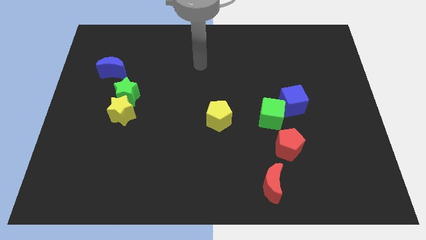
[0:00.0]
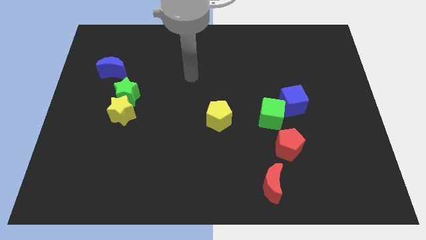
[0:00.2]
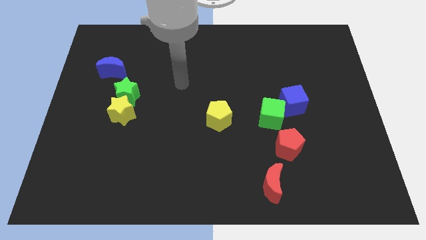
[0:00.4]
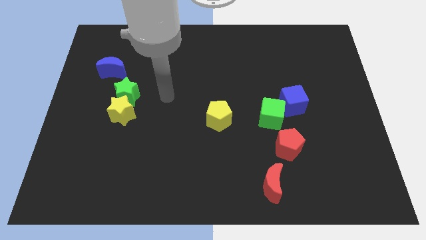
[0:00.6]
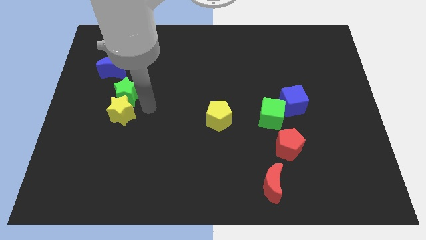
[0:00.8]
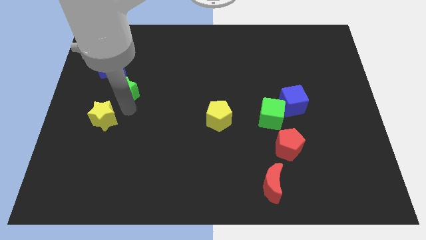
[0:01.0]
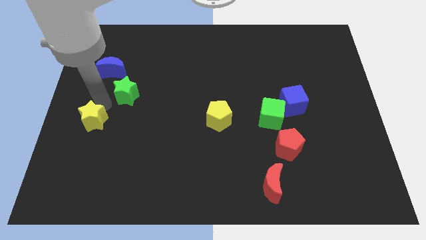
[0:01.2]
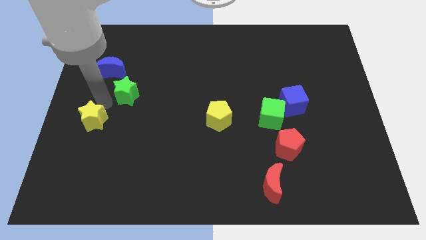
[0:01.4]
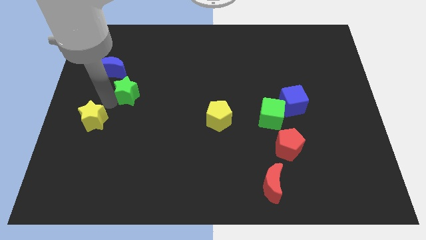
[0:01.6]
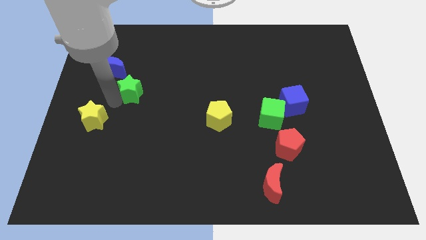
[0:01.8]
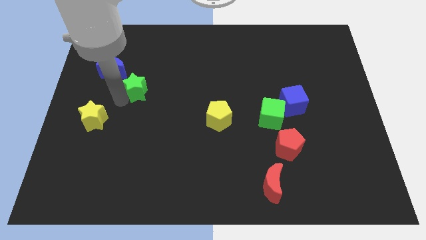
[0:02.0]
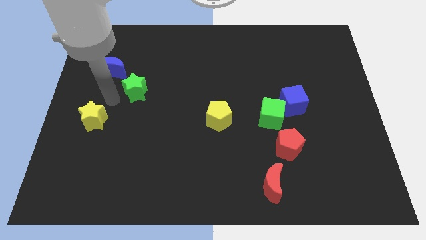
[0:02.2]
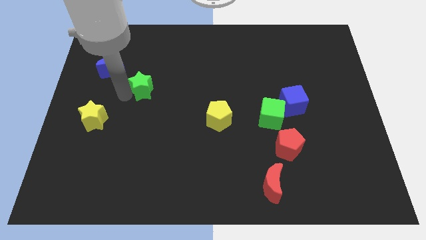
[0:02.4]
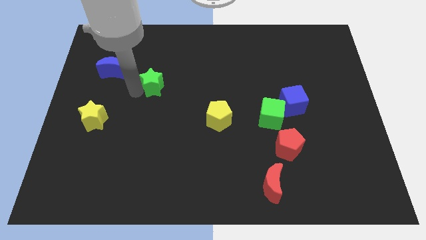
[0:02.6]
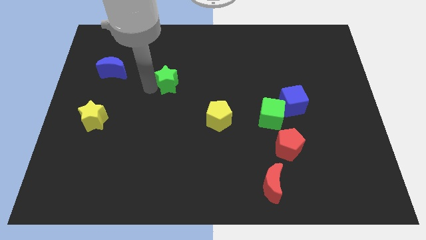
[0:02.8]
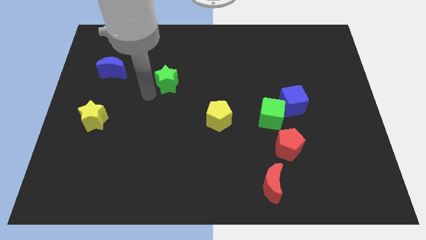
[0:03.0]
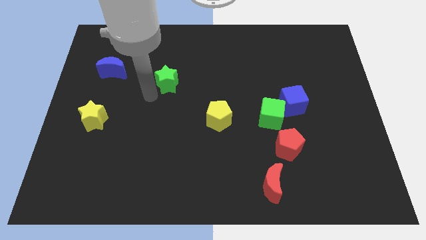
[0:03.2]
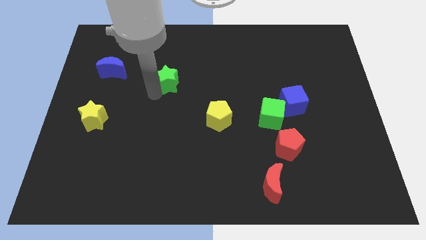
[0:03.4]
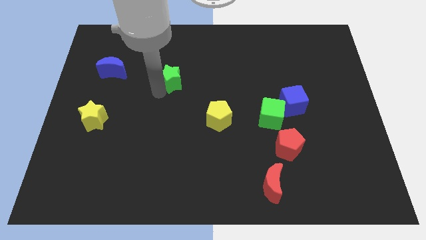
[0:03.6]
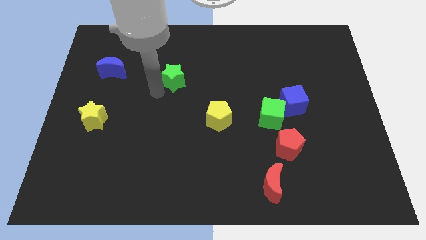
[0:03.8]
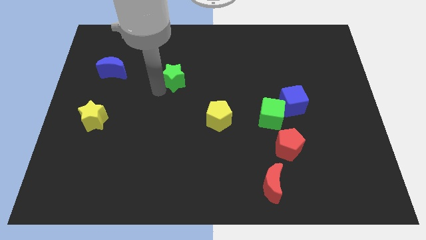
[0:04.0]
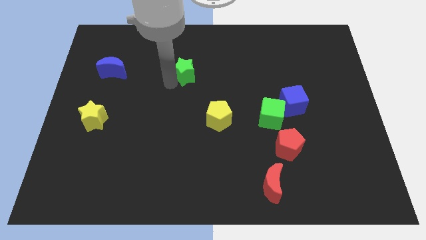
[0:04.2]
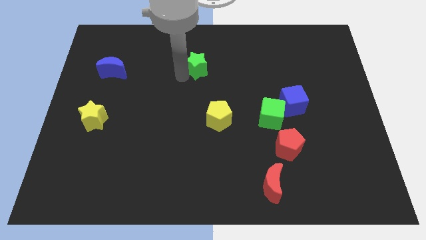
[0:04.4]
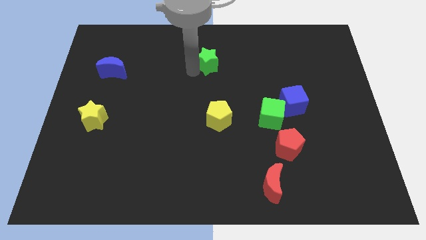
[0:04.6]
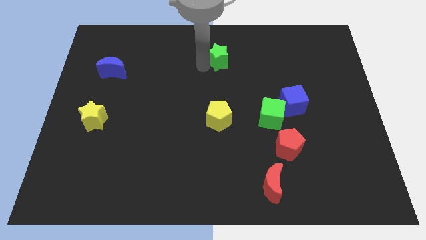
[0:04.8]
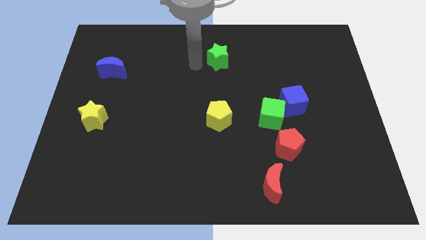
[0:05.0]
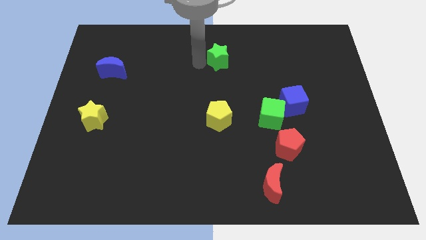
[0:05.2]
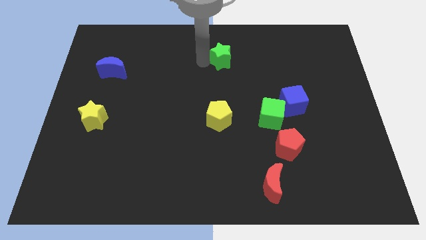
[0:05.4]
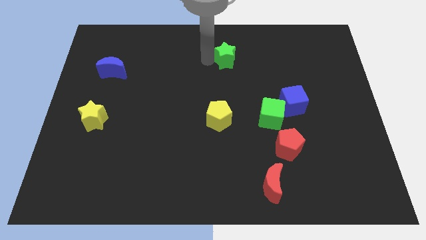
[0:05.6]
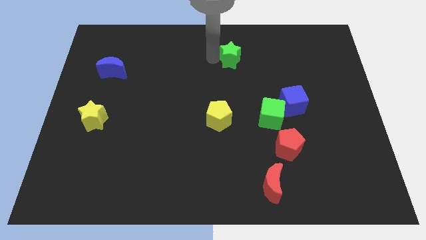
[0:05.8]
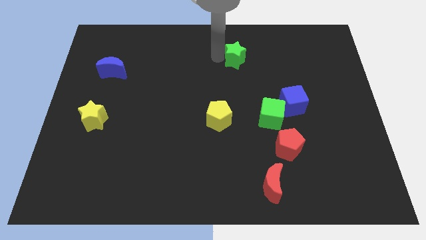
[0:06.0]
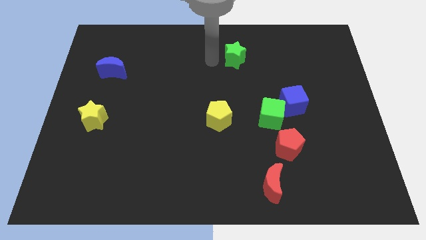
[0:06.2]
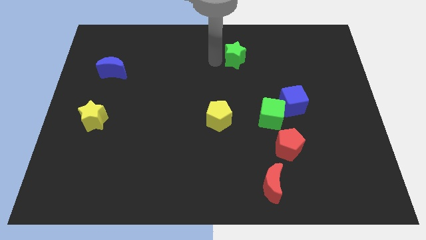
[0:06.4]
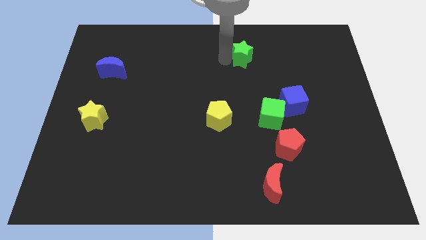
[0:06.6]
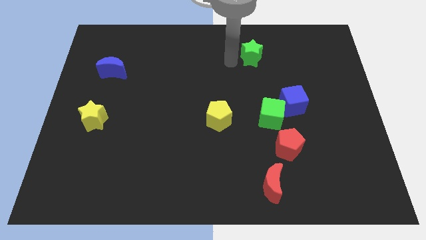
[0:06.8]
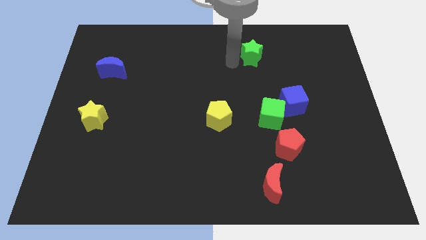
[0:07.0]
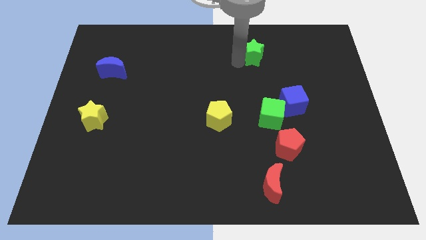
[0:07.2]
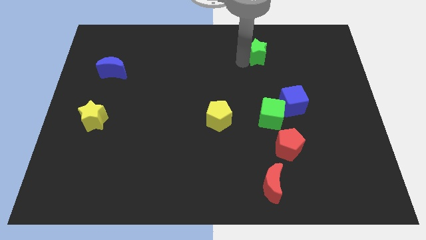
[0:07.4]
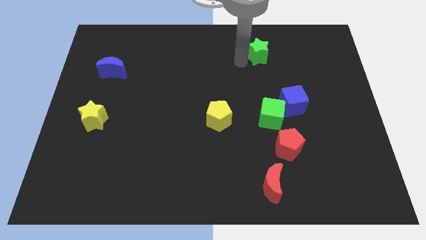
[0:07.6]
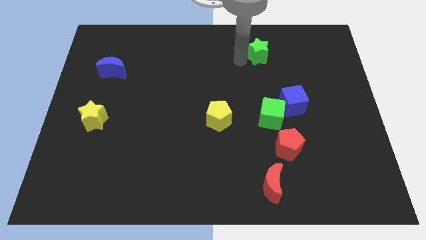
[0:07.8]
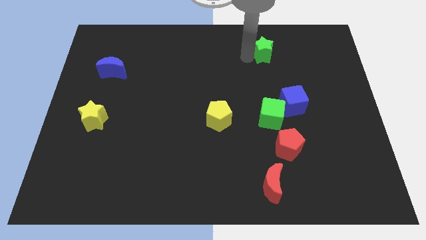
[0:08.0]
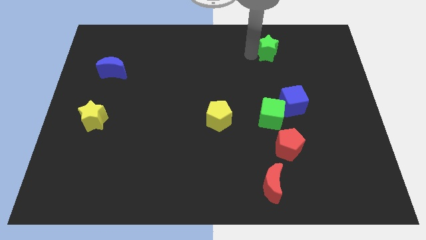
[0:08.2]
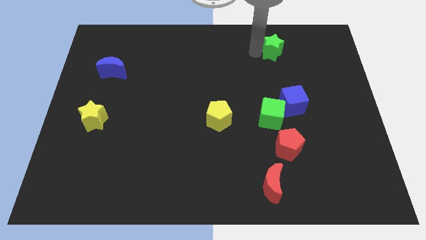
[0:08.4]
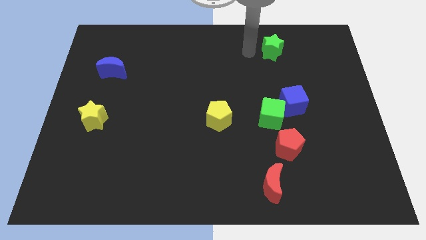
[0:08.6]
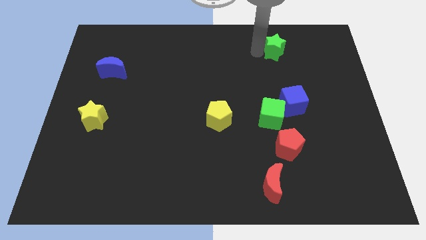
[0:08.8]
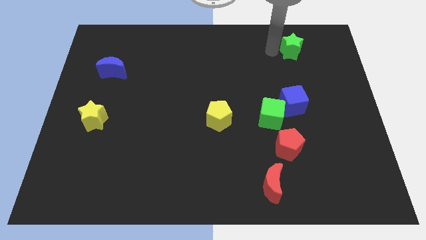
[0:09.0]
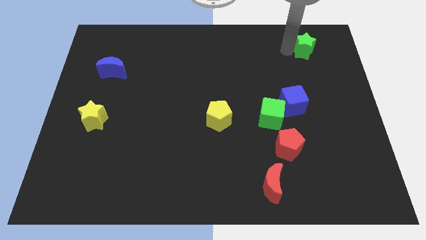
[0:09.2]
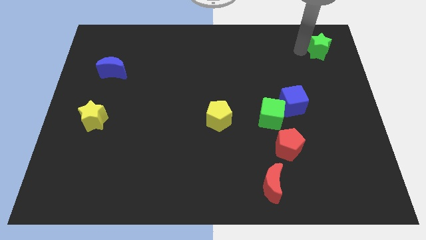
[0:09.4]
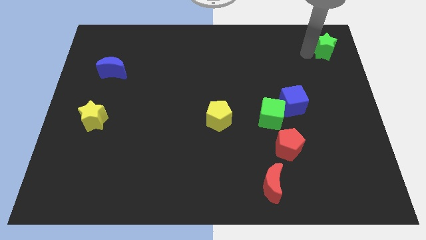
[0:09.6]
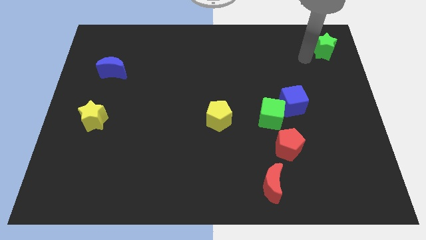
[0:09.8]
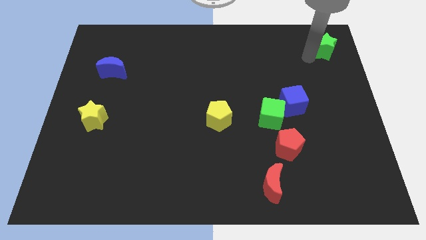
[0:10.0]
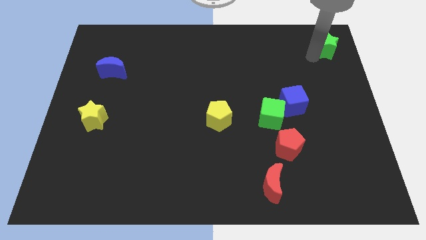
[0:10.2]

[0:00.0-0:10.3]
push the green star to the top right of the board

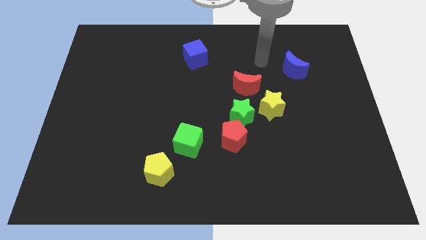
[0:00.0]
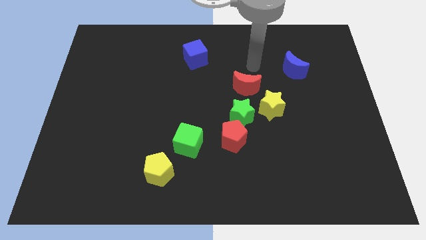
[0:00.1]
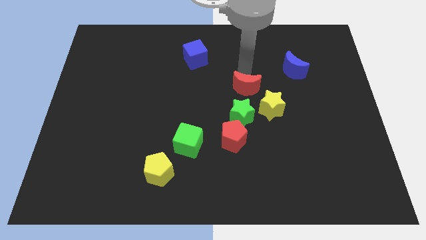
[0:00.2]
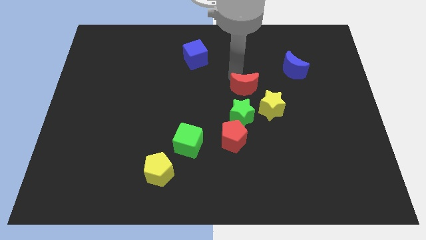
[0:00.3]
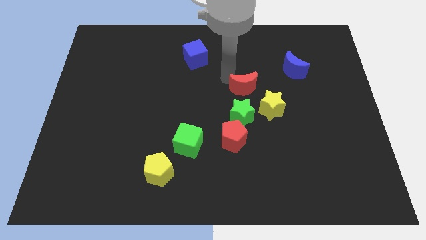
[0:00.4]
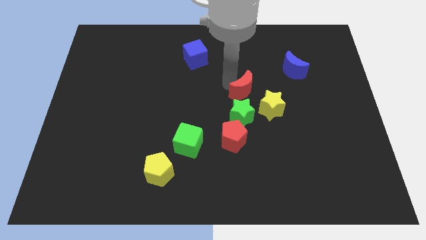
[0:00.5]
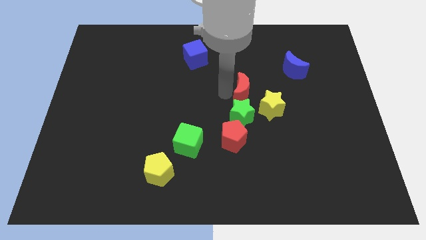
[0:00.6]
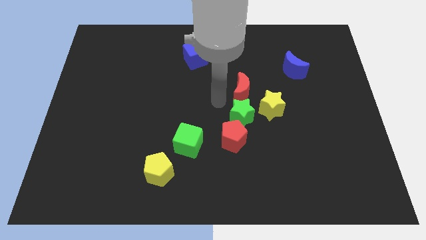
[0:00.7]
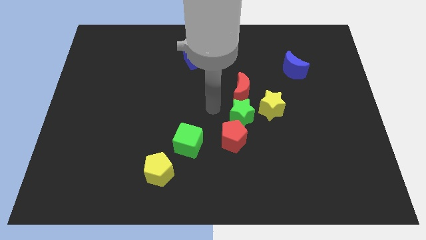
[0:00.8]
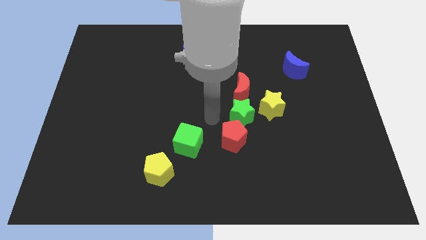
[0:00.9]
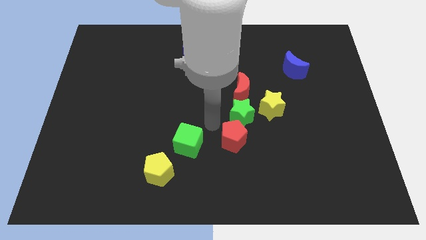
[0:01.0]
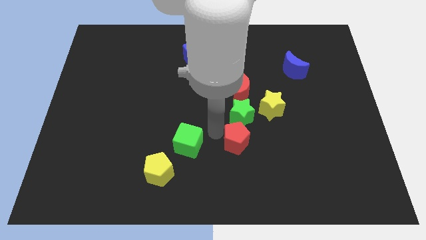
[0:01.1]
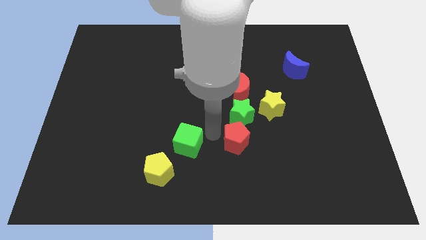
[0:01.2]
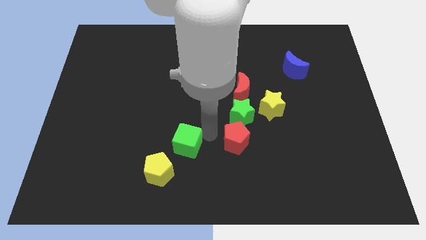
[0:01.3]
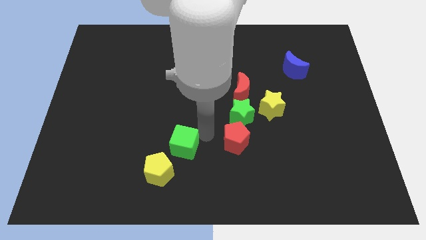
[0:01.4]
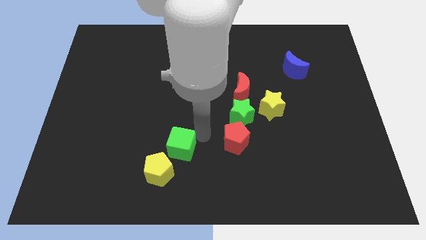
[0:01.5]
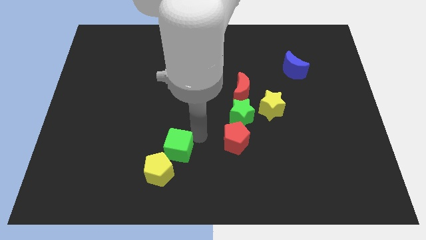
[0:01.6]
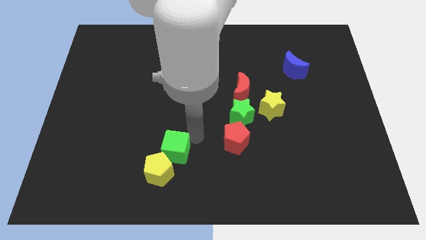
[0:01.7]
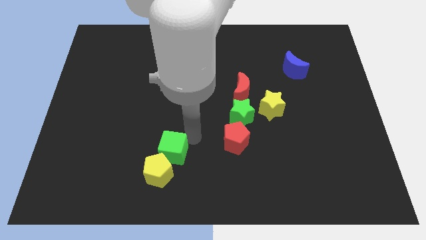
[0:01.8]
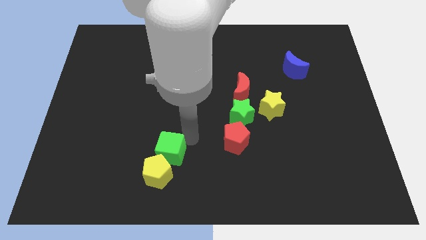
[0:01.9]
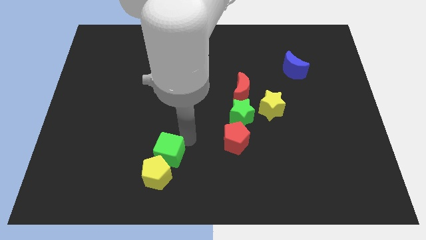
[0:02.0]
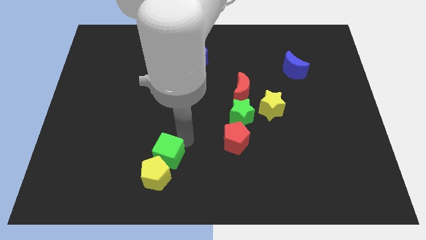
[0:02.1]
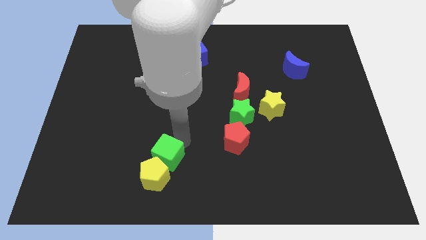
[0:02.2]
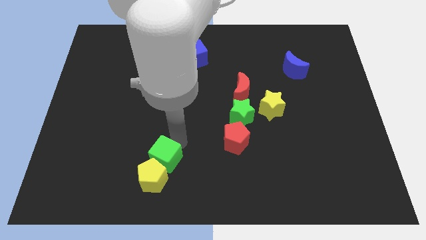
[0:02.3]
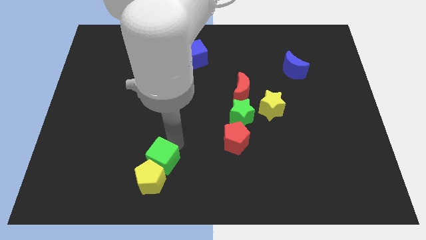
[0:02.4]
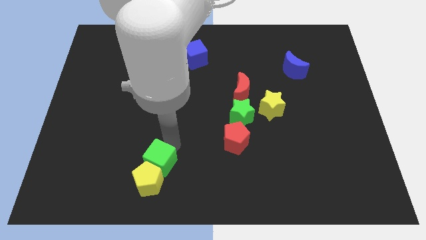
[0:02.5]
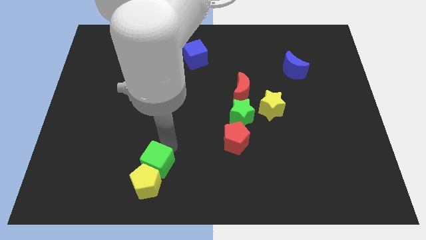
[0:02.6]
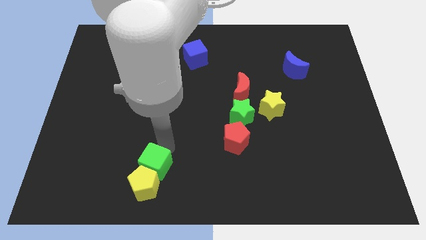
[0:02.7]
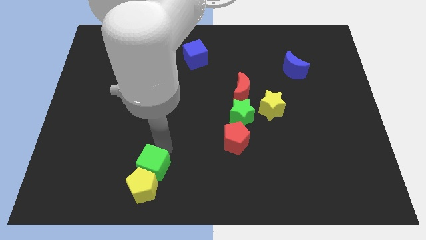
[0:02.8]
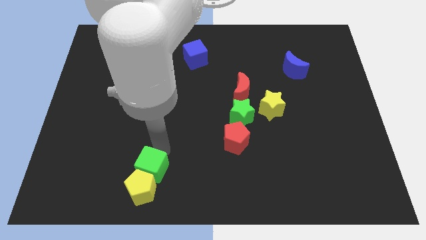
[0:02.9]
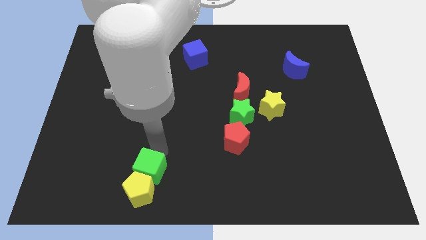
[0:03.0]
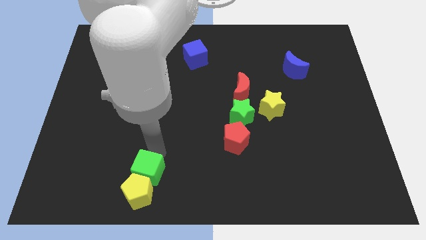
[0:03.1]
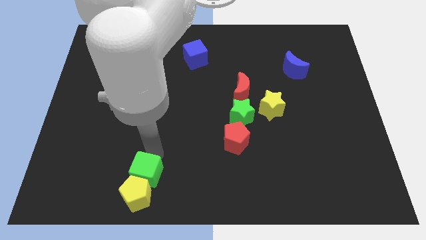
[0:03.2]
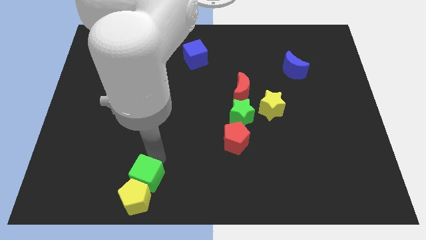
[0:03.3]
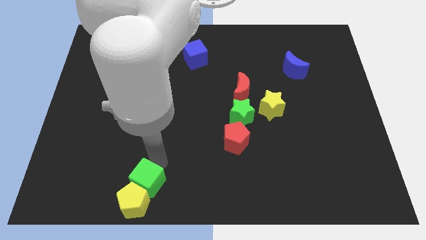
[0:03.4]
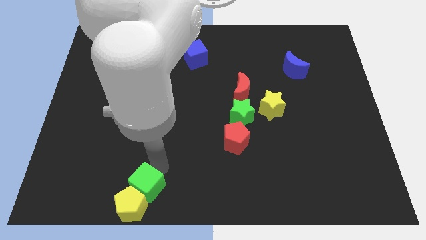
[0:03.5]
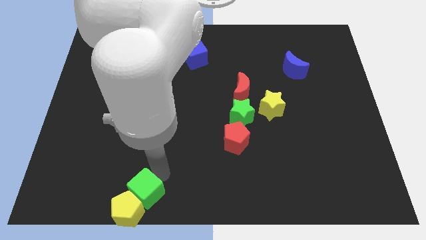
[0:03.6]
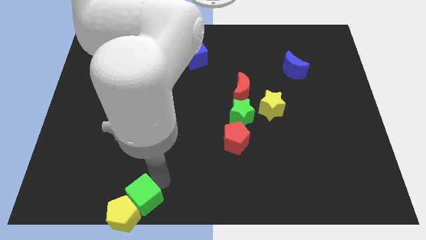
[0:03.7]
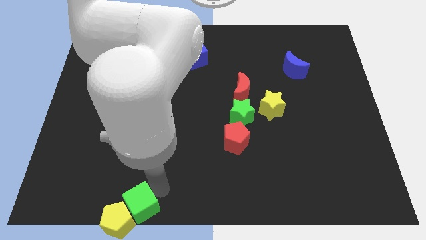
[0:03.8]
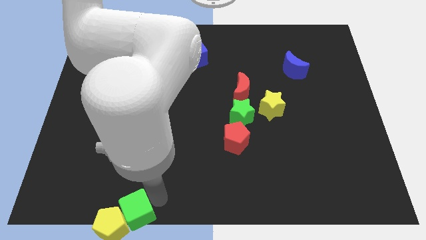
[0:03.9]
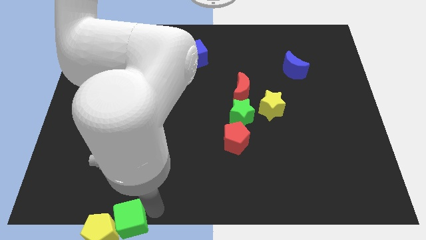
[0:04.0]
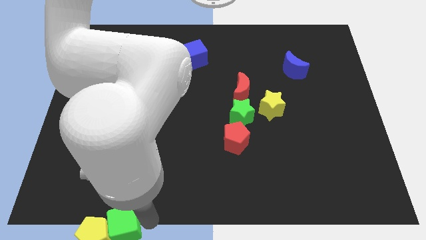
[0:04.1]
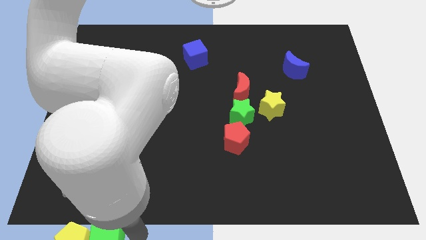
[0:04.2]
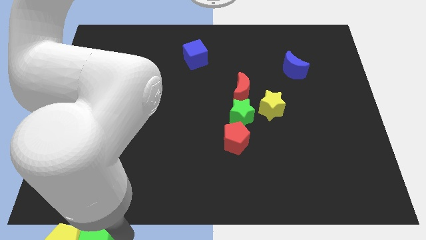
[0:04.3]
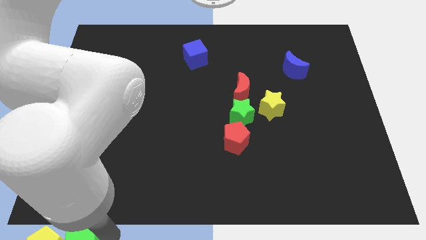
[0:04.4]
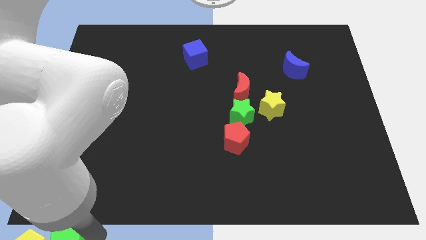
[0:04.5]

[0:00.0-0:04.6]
push the green cube to the bottom left corner
